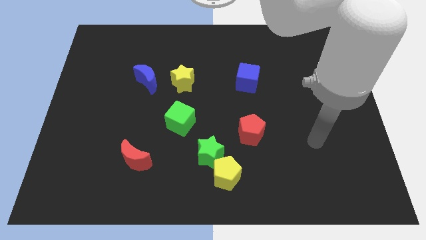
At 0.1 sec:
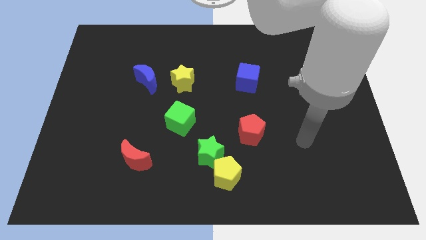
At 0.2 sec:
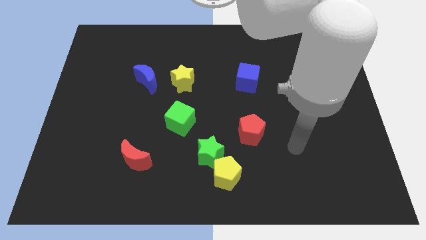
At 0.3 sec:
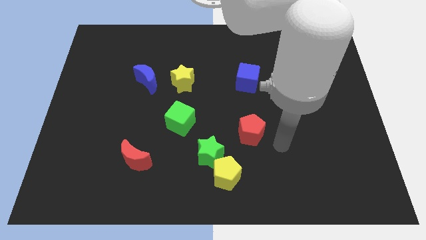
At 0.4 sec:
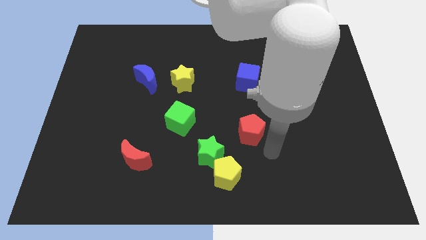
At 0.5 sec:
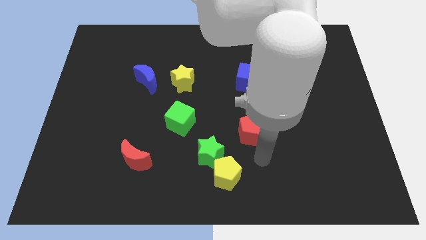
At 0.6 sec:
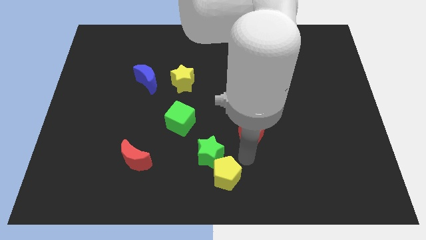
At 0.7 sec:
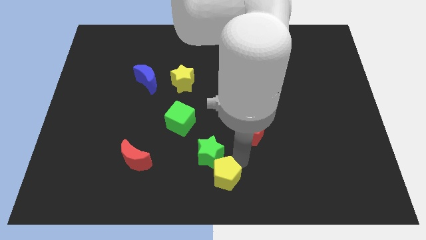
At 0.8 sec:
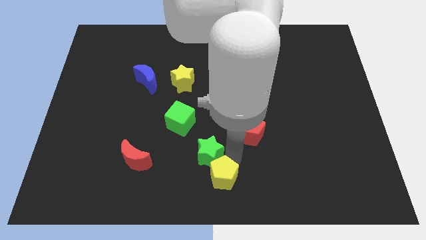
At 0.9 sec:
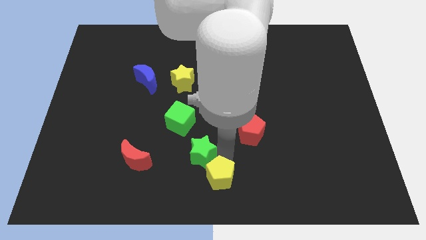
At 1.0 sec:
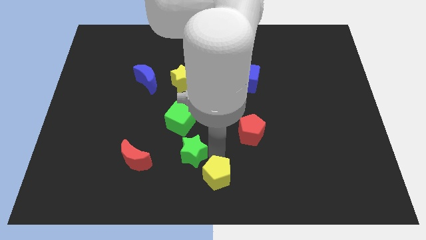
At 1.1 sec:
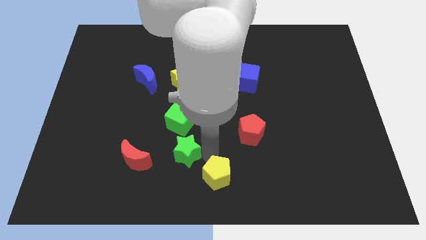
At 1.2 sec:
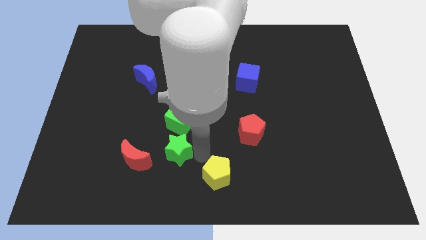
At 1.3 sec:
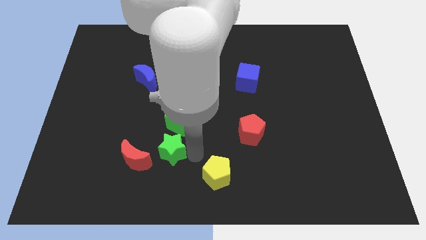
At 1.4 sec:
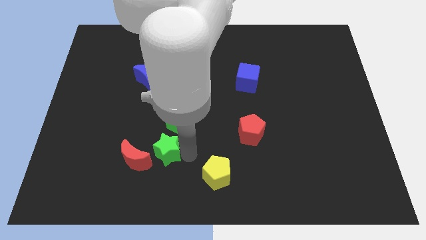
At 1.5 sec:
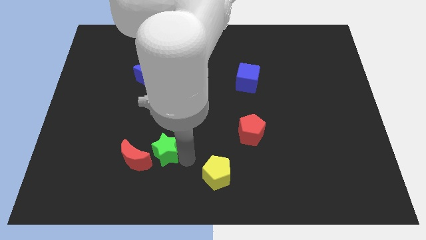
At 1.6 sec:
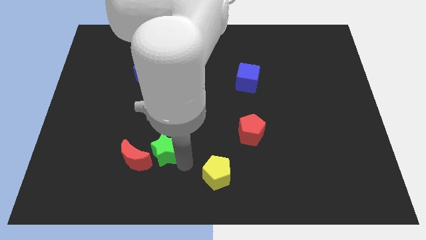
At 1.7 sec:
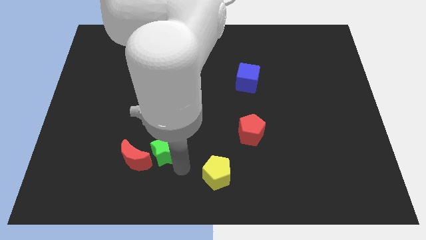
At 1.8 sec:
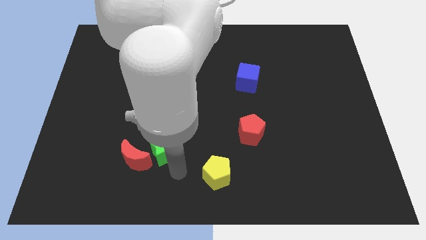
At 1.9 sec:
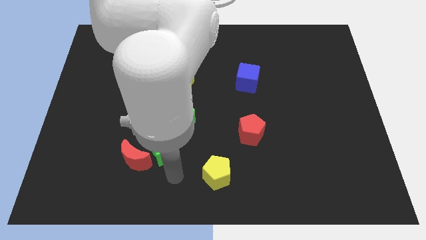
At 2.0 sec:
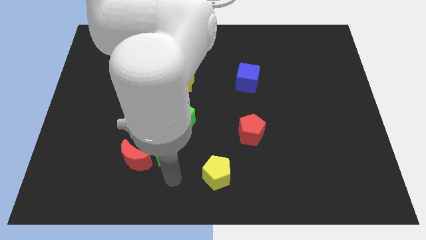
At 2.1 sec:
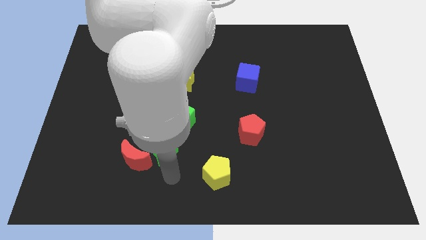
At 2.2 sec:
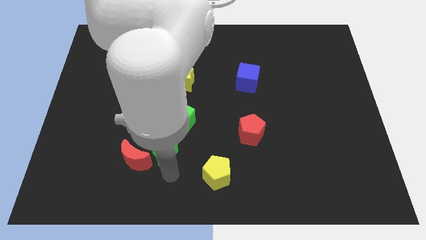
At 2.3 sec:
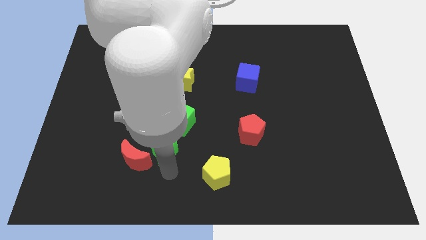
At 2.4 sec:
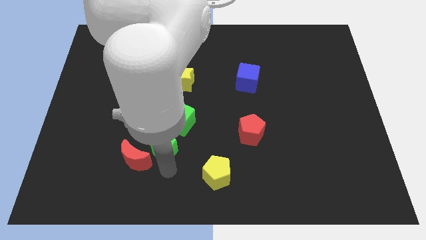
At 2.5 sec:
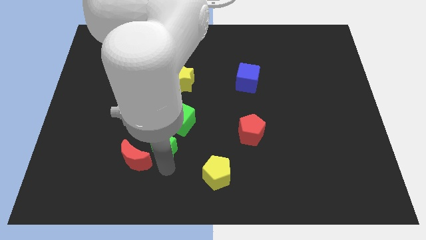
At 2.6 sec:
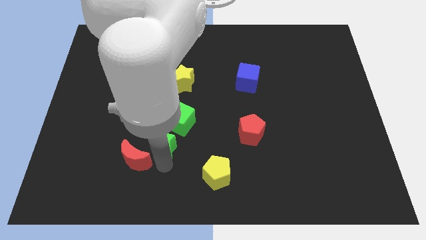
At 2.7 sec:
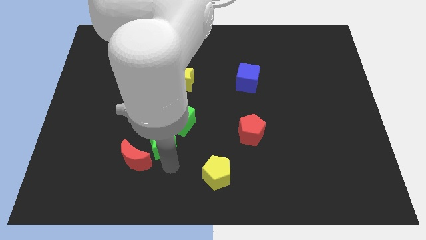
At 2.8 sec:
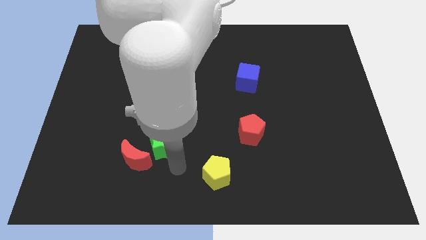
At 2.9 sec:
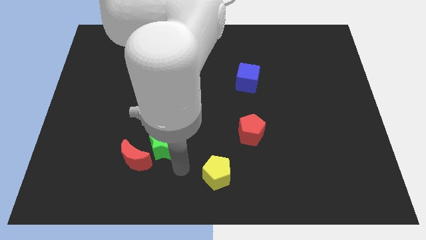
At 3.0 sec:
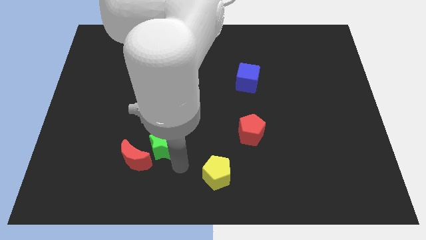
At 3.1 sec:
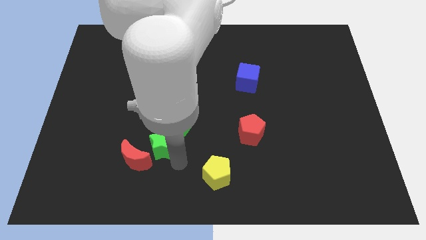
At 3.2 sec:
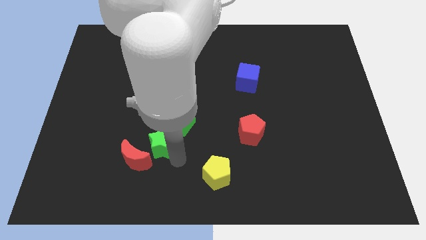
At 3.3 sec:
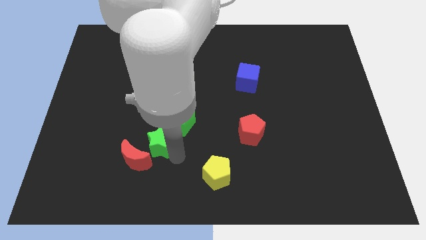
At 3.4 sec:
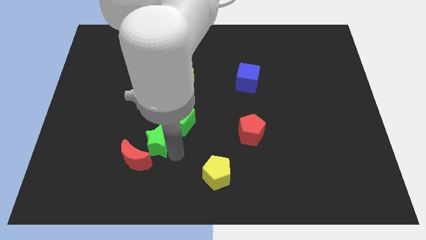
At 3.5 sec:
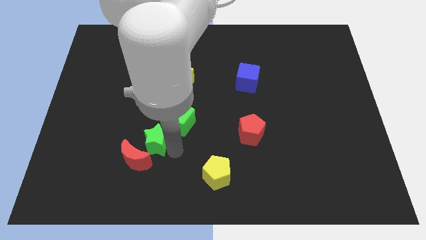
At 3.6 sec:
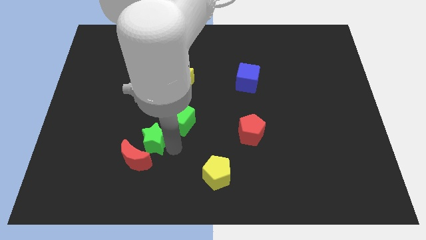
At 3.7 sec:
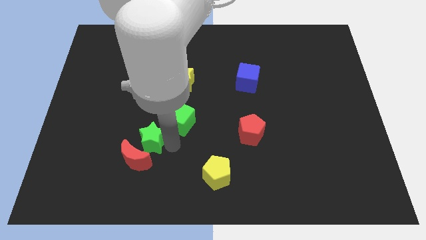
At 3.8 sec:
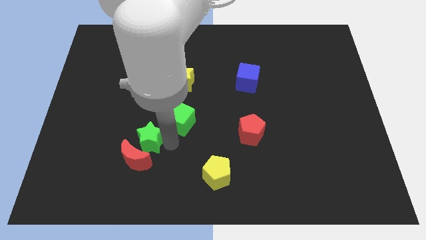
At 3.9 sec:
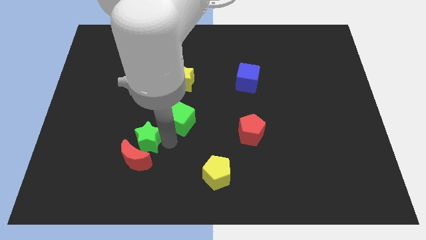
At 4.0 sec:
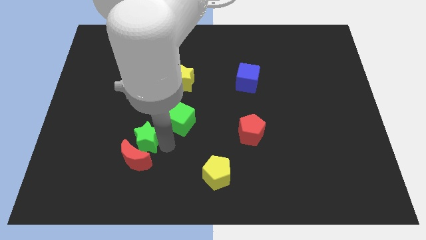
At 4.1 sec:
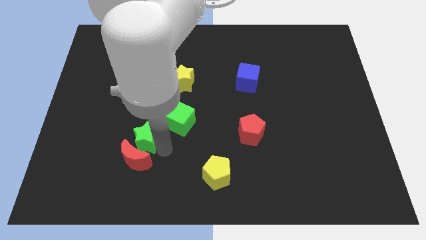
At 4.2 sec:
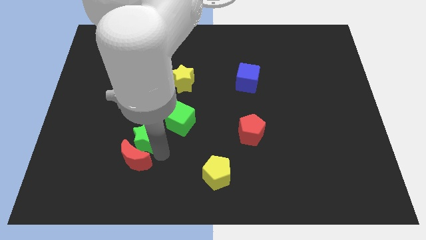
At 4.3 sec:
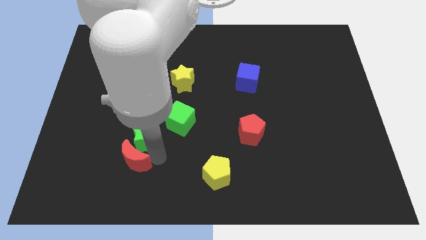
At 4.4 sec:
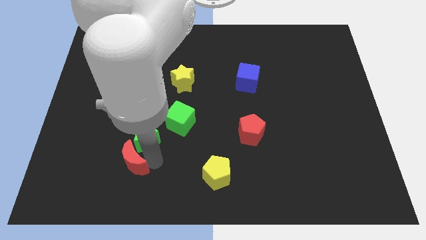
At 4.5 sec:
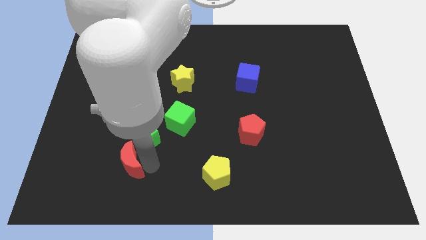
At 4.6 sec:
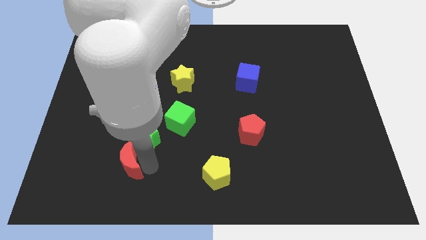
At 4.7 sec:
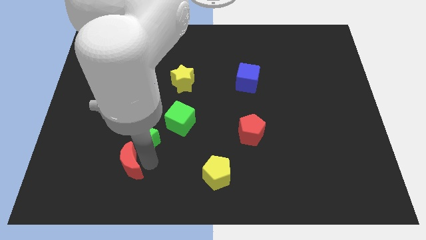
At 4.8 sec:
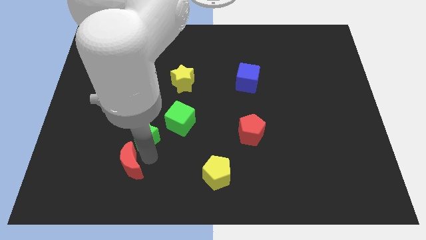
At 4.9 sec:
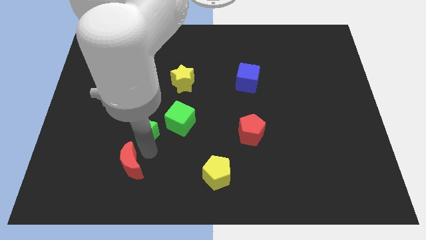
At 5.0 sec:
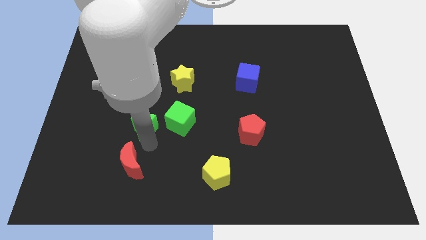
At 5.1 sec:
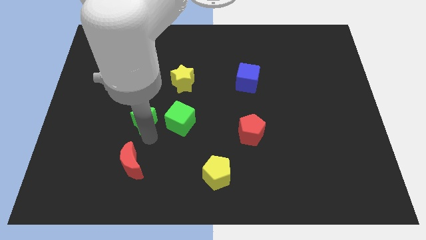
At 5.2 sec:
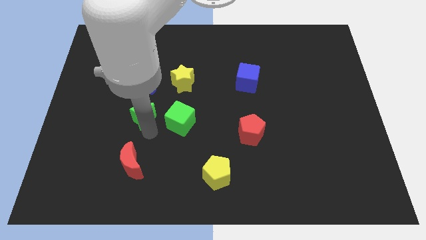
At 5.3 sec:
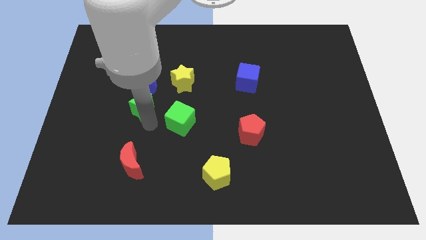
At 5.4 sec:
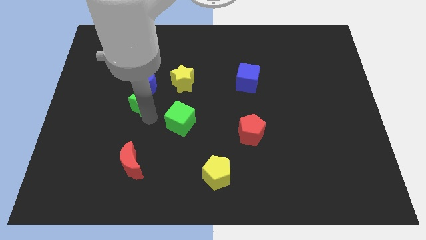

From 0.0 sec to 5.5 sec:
move the green star to the bottom left of the blue moon

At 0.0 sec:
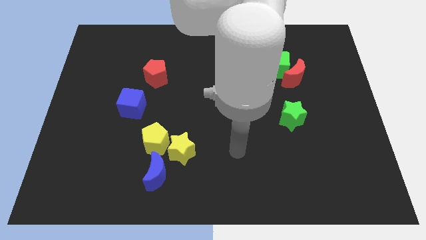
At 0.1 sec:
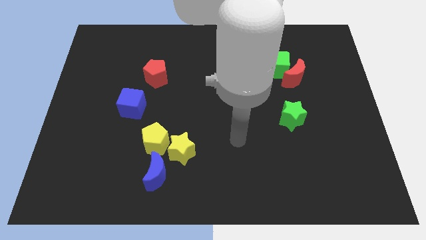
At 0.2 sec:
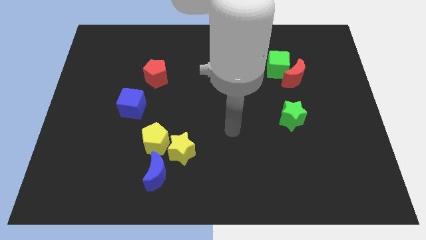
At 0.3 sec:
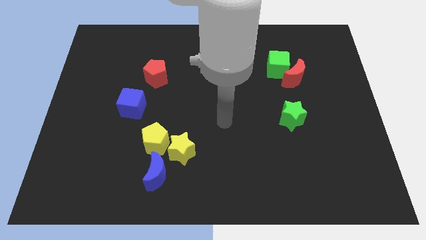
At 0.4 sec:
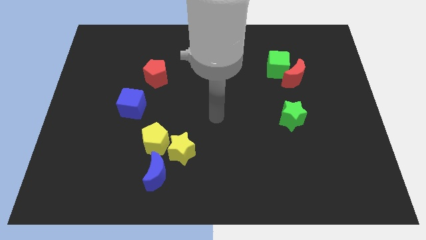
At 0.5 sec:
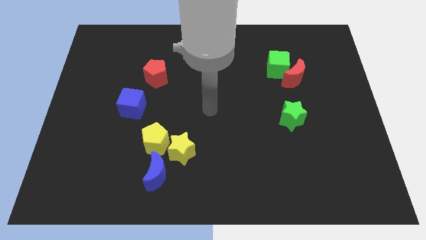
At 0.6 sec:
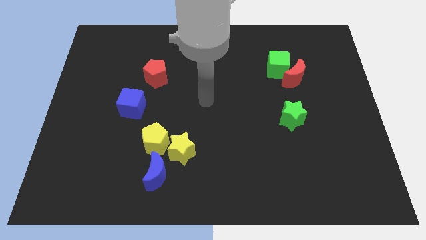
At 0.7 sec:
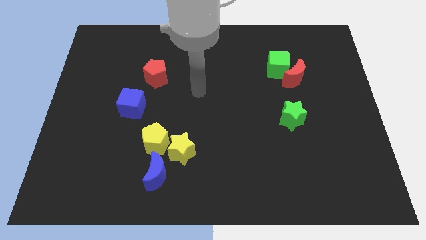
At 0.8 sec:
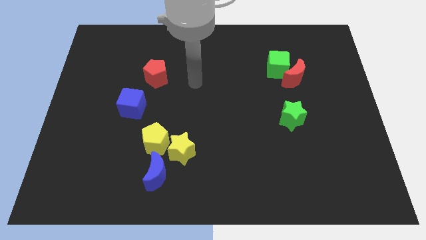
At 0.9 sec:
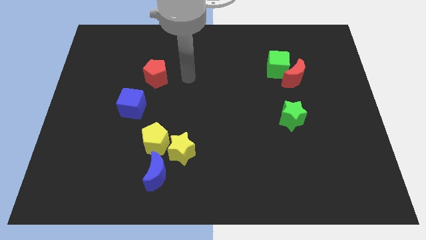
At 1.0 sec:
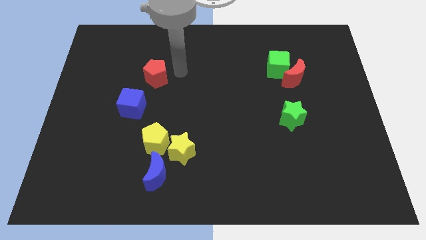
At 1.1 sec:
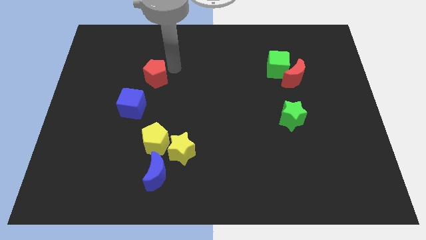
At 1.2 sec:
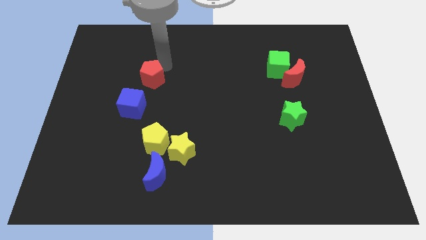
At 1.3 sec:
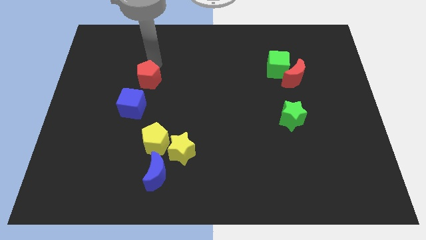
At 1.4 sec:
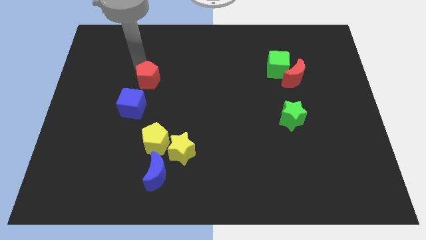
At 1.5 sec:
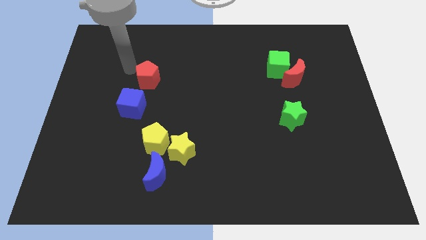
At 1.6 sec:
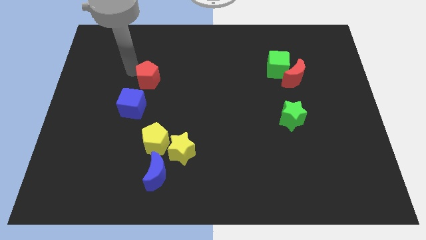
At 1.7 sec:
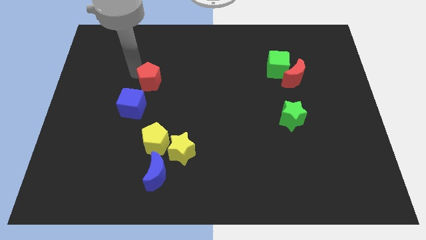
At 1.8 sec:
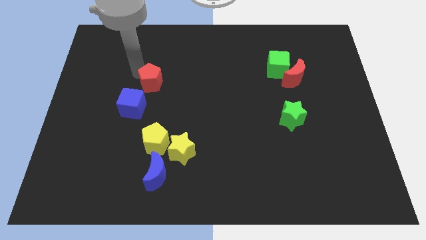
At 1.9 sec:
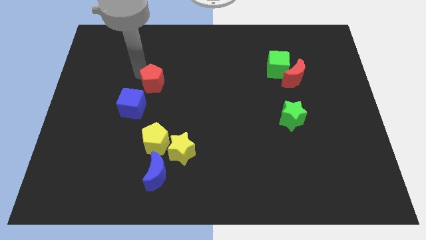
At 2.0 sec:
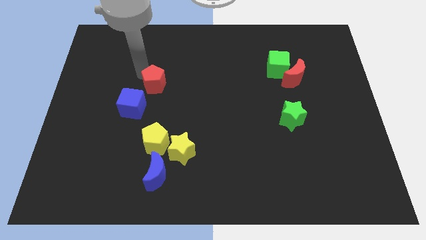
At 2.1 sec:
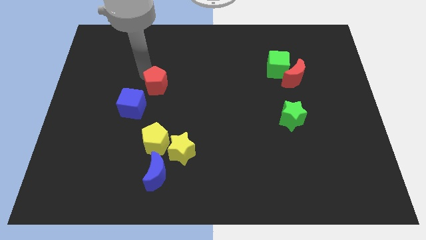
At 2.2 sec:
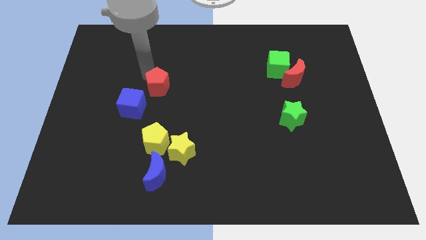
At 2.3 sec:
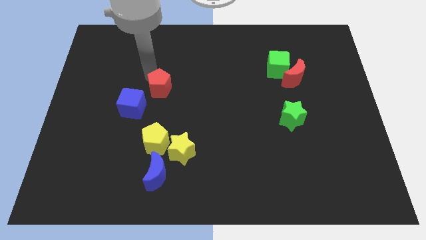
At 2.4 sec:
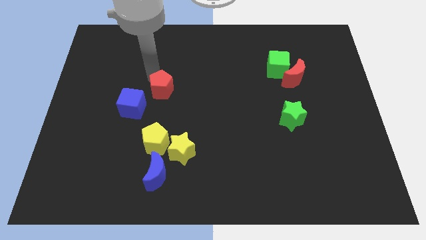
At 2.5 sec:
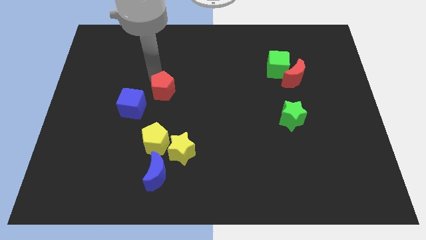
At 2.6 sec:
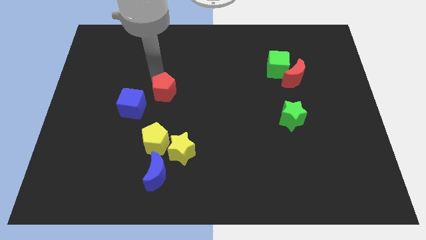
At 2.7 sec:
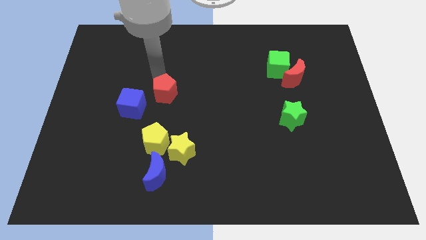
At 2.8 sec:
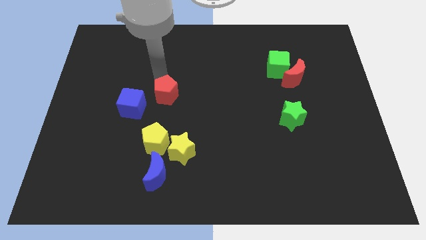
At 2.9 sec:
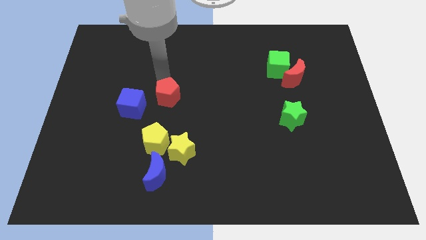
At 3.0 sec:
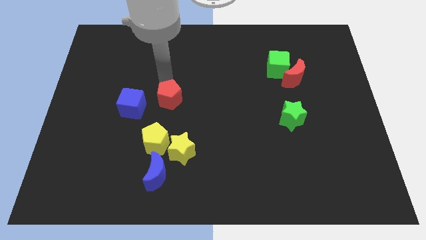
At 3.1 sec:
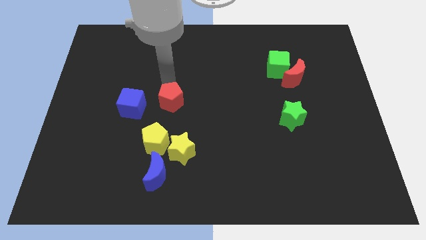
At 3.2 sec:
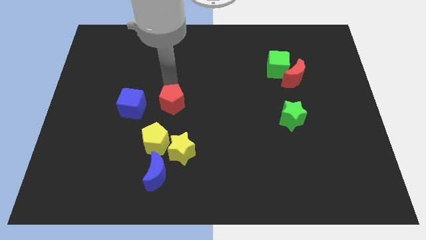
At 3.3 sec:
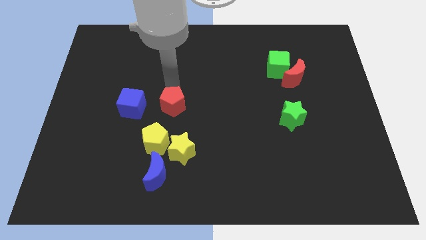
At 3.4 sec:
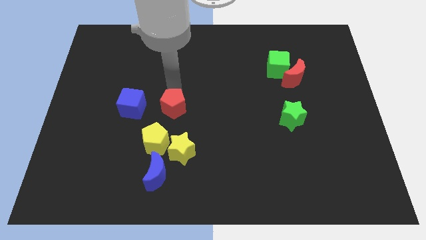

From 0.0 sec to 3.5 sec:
slide the red pentagon to the top right side of the yellow pentagon
